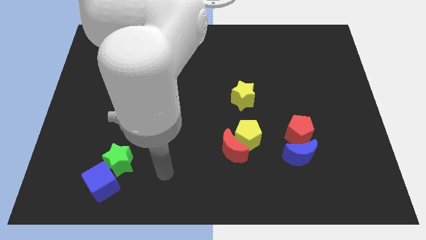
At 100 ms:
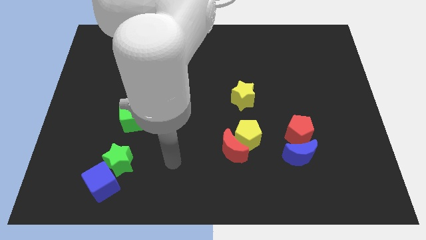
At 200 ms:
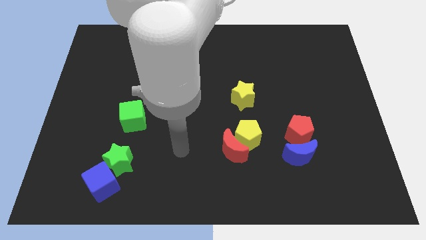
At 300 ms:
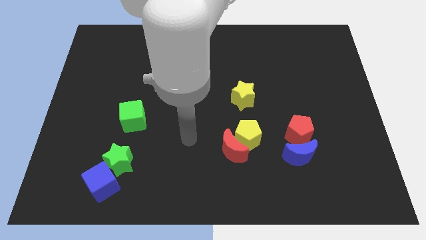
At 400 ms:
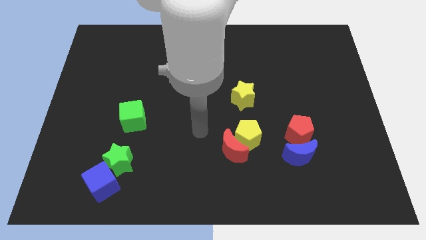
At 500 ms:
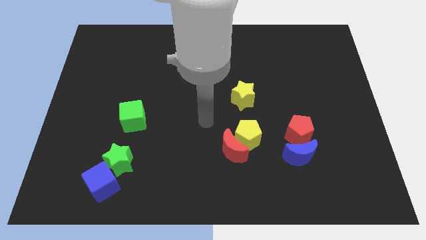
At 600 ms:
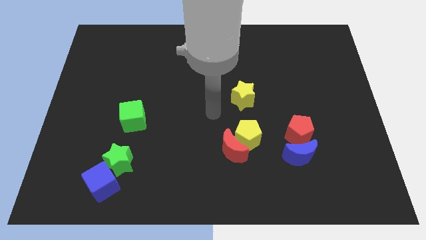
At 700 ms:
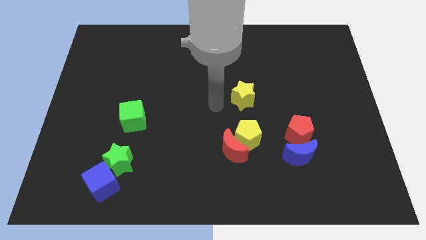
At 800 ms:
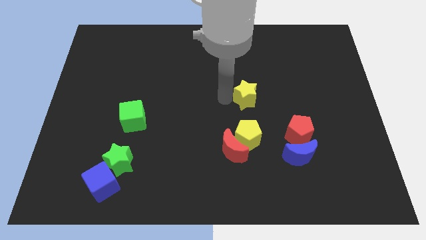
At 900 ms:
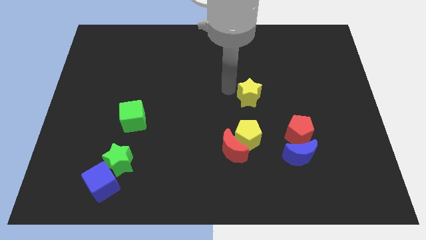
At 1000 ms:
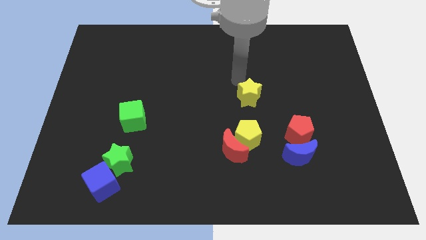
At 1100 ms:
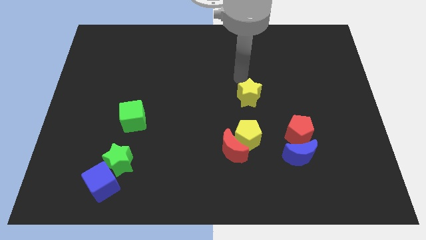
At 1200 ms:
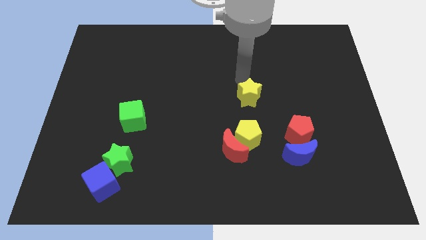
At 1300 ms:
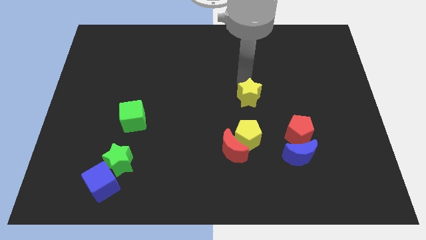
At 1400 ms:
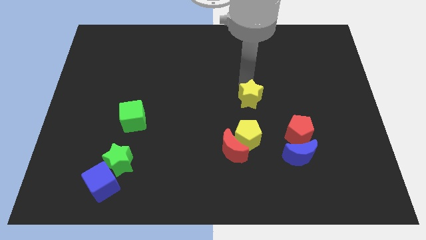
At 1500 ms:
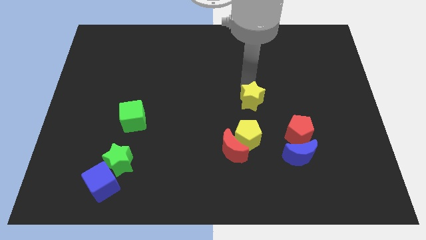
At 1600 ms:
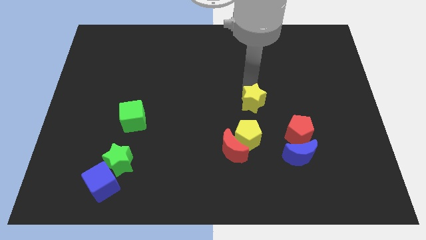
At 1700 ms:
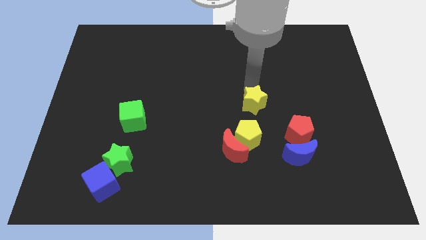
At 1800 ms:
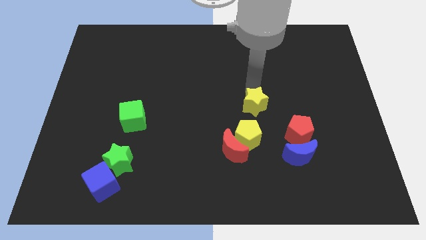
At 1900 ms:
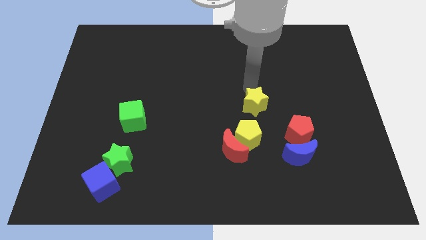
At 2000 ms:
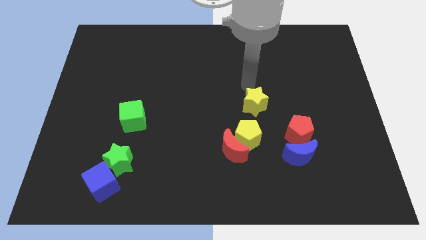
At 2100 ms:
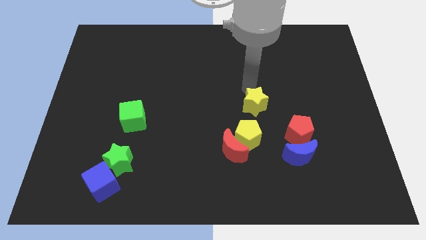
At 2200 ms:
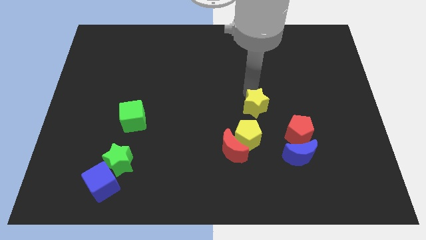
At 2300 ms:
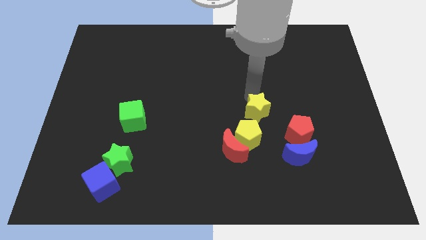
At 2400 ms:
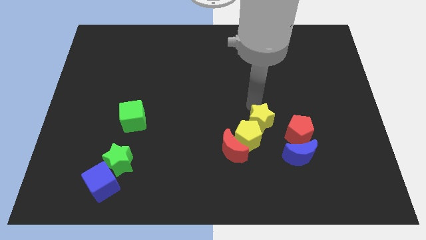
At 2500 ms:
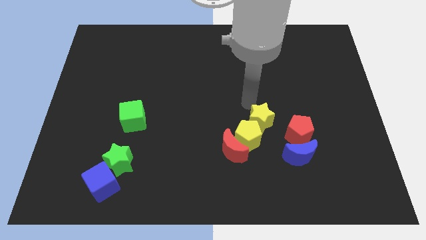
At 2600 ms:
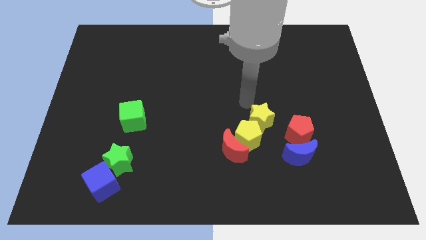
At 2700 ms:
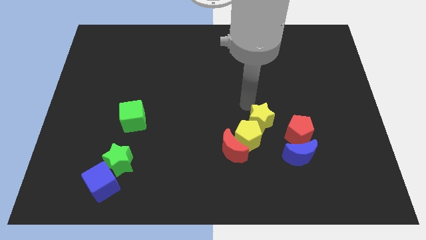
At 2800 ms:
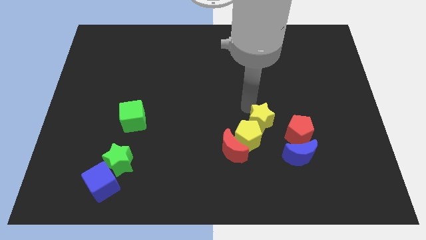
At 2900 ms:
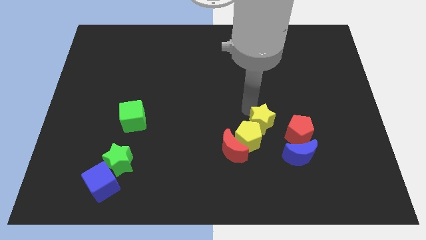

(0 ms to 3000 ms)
move the yellow star down a little bit

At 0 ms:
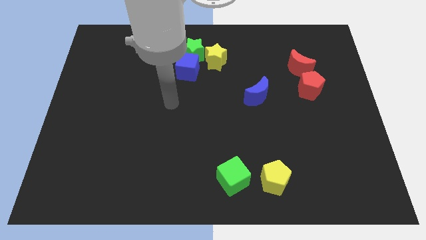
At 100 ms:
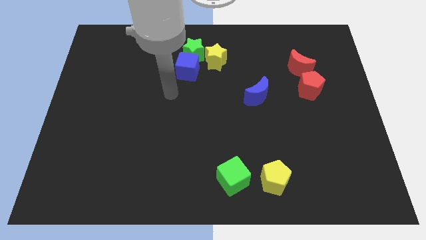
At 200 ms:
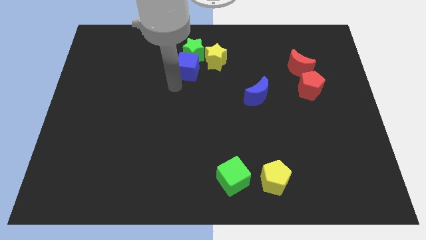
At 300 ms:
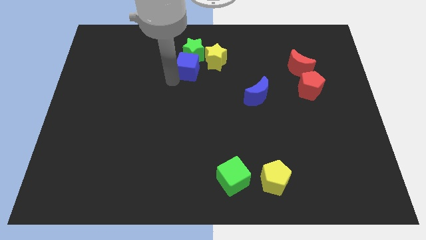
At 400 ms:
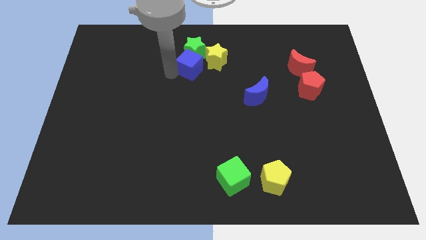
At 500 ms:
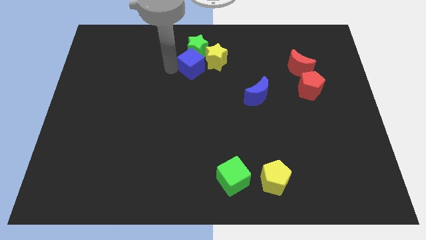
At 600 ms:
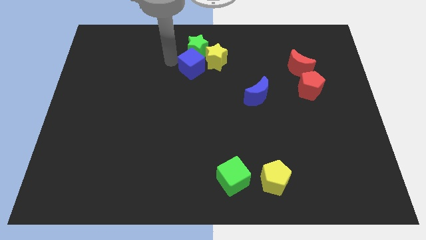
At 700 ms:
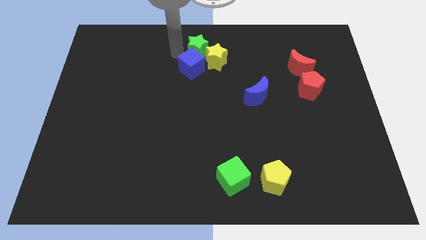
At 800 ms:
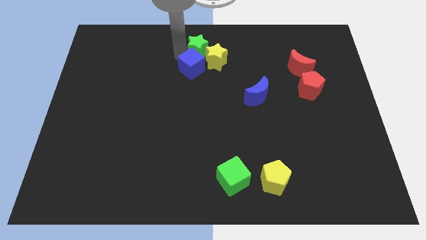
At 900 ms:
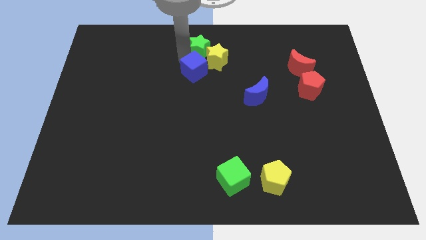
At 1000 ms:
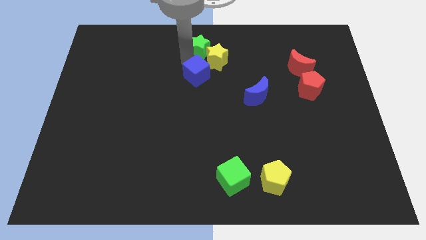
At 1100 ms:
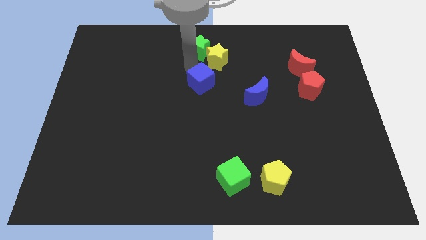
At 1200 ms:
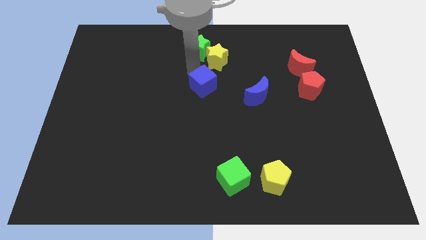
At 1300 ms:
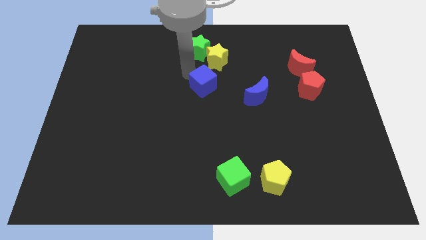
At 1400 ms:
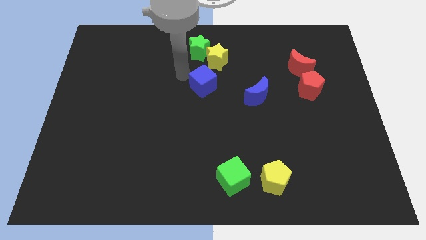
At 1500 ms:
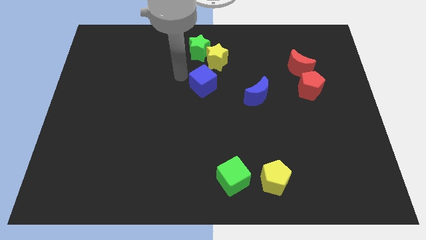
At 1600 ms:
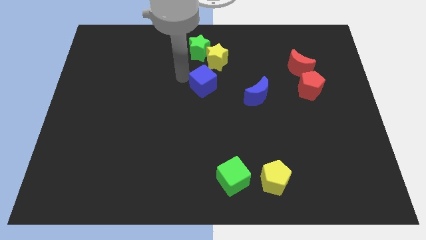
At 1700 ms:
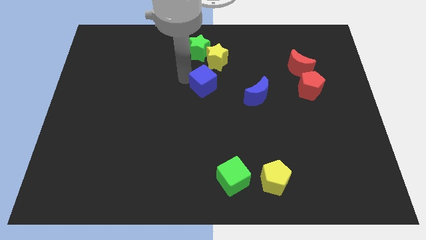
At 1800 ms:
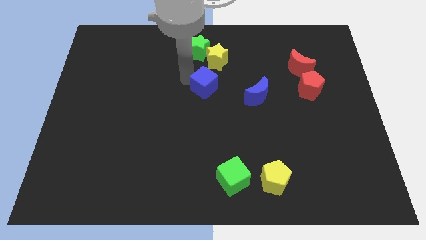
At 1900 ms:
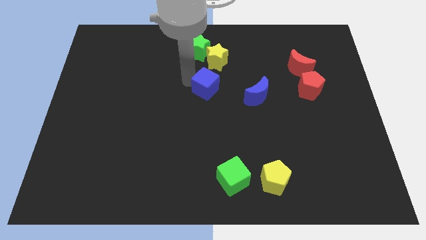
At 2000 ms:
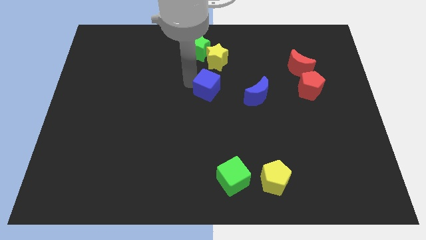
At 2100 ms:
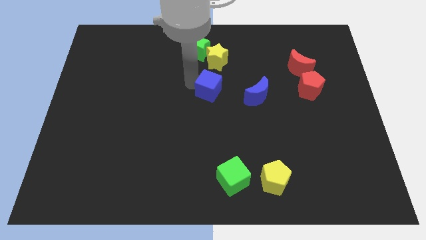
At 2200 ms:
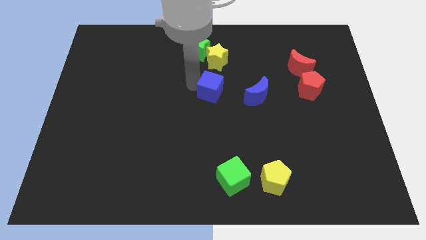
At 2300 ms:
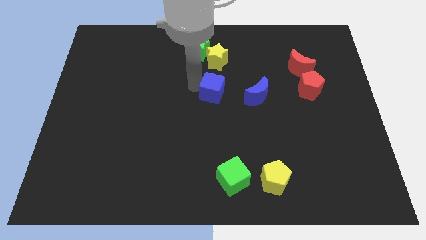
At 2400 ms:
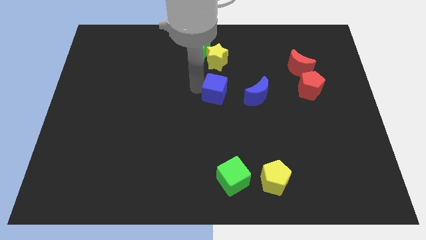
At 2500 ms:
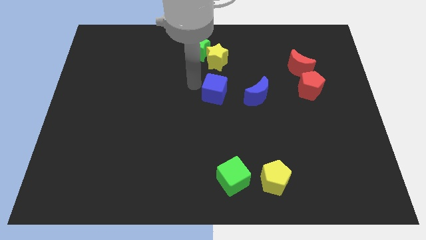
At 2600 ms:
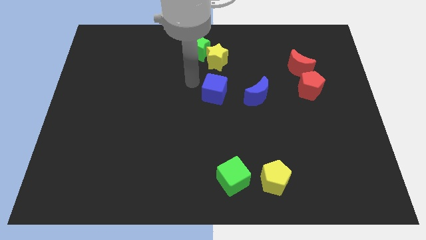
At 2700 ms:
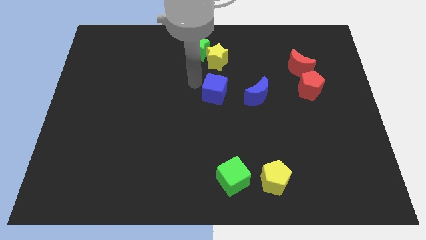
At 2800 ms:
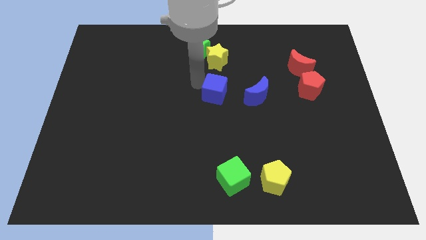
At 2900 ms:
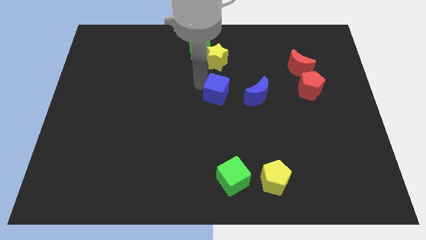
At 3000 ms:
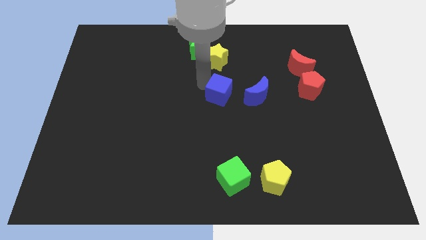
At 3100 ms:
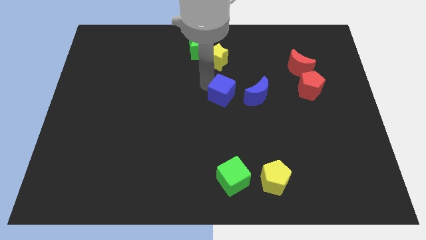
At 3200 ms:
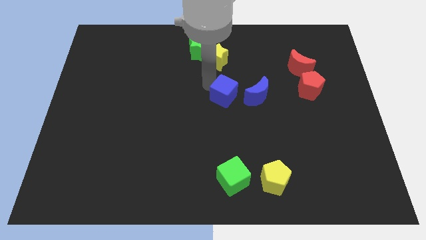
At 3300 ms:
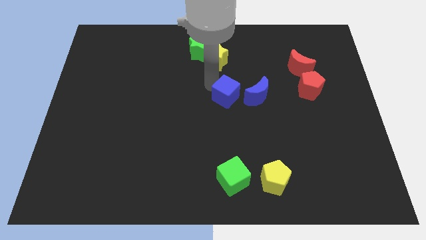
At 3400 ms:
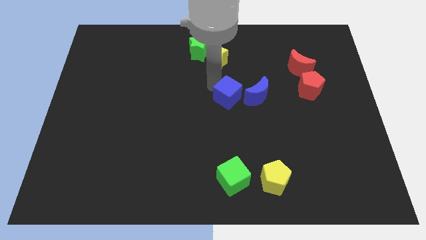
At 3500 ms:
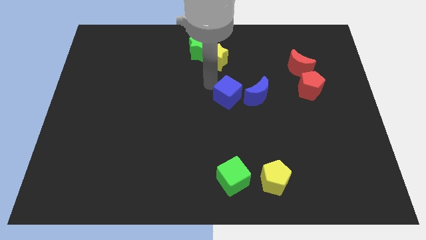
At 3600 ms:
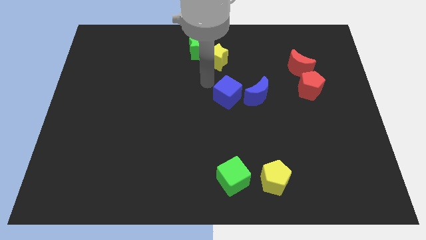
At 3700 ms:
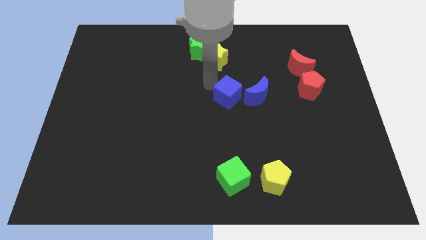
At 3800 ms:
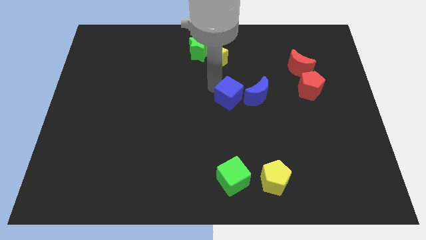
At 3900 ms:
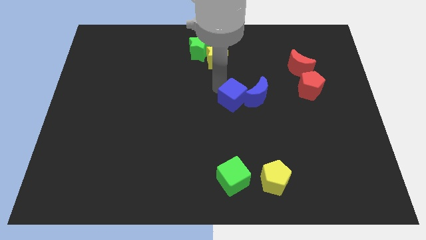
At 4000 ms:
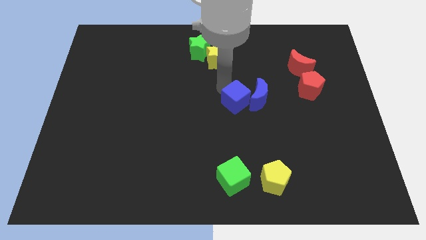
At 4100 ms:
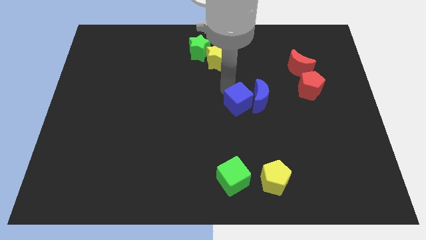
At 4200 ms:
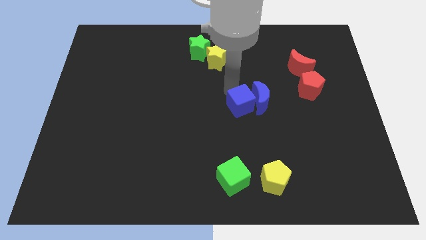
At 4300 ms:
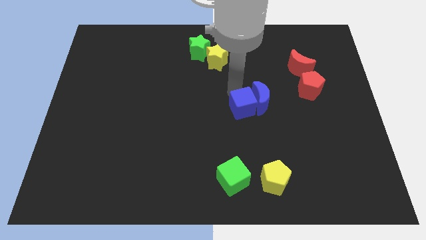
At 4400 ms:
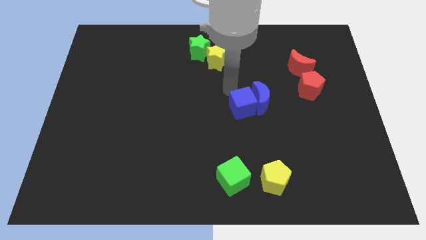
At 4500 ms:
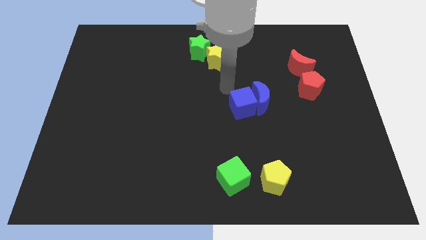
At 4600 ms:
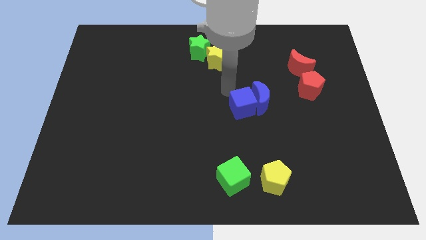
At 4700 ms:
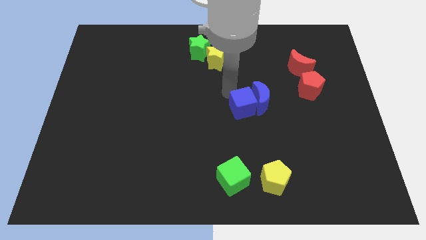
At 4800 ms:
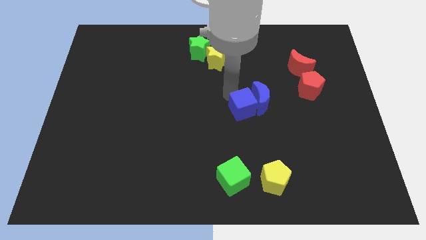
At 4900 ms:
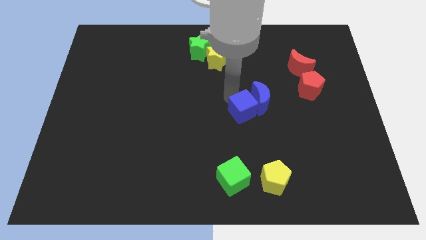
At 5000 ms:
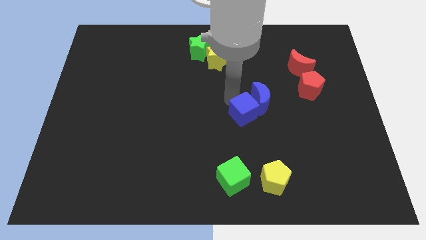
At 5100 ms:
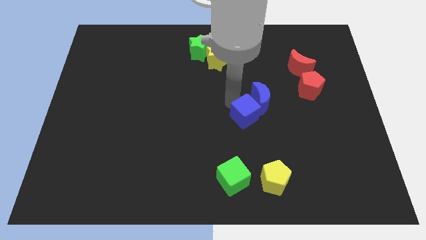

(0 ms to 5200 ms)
push the blue cube down and right diagonally
